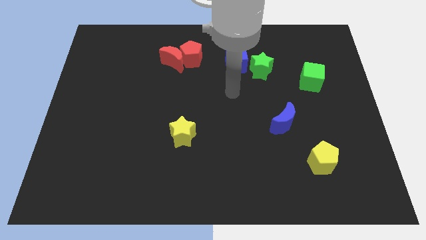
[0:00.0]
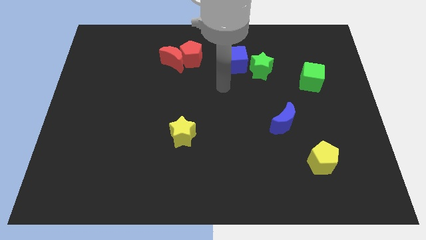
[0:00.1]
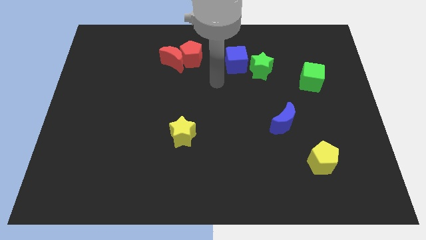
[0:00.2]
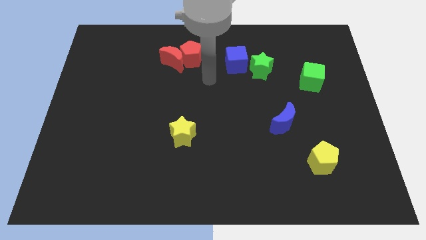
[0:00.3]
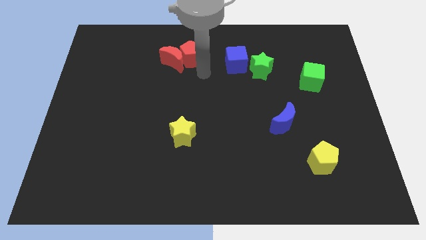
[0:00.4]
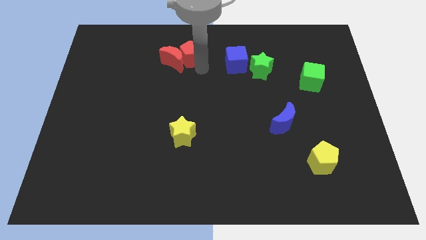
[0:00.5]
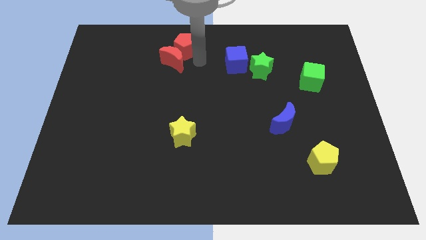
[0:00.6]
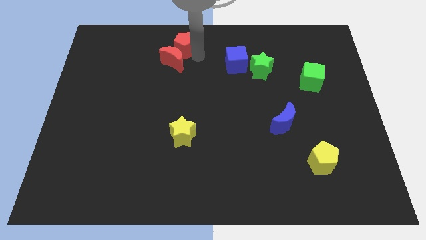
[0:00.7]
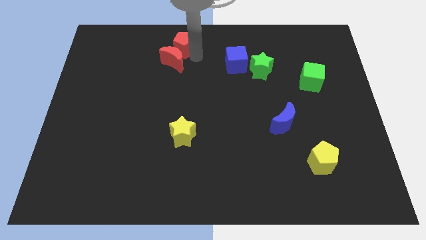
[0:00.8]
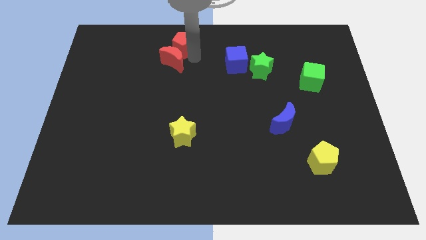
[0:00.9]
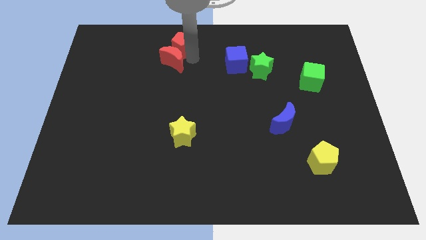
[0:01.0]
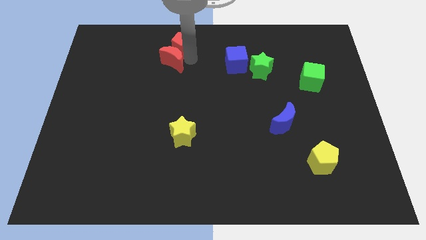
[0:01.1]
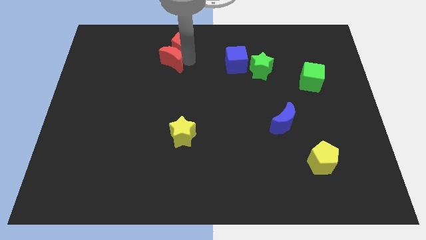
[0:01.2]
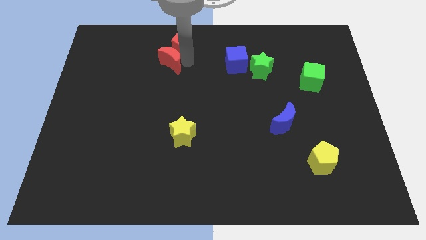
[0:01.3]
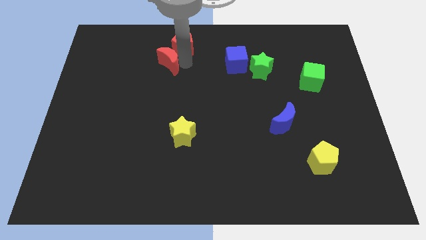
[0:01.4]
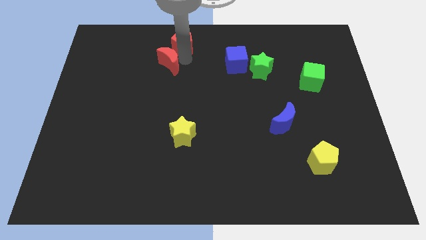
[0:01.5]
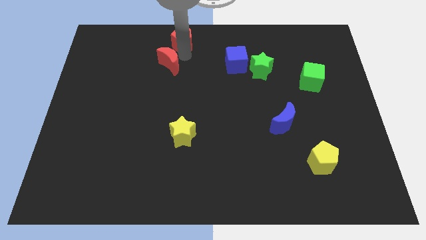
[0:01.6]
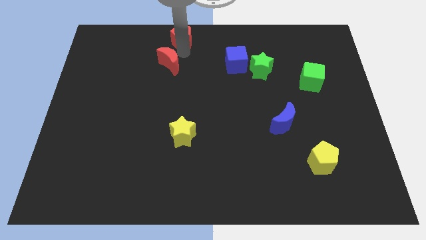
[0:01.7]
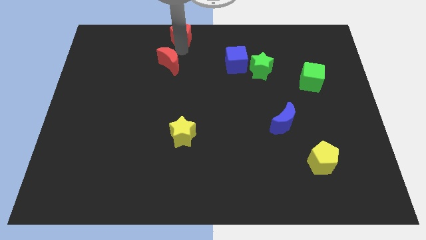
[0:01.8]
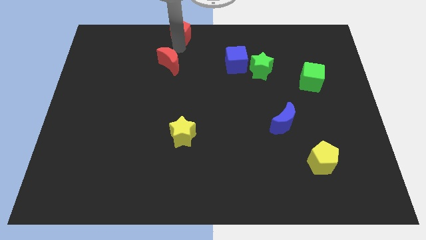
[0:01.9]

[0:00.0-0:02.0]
separate the red moon from the red pentagon

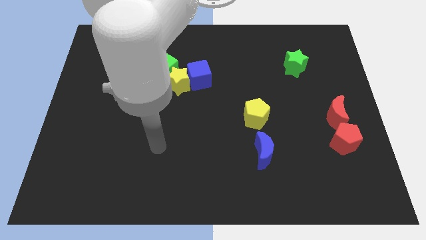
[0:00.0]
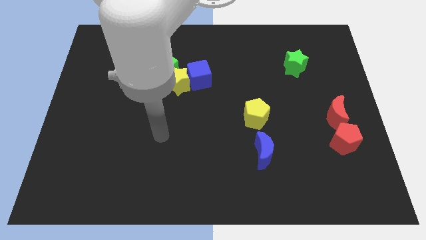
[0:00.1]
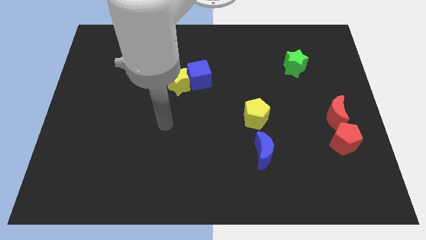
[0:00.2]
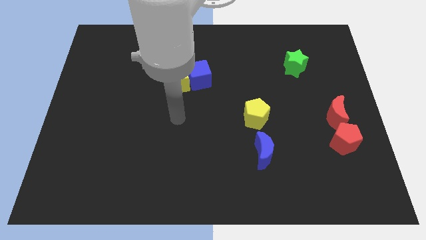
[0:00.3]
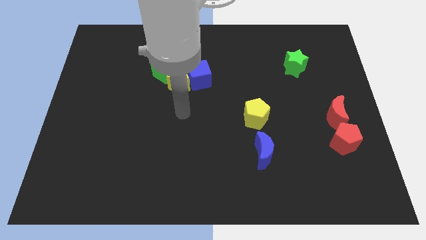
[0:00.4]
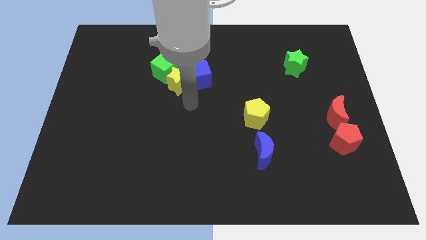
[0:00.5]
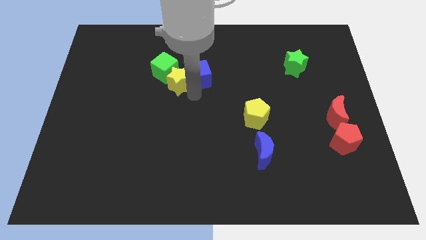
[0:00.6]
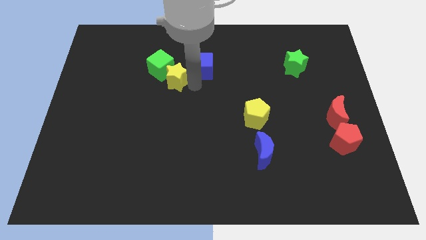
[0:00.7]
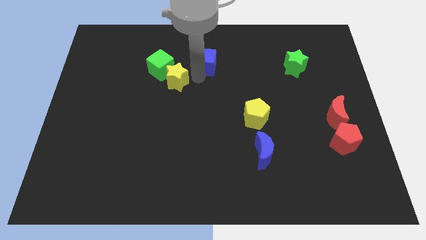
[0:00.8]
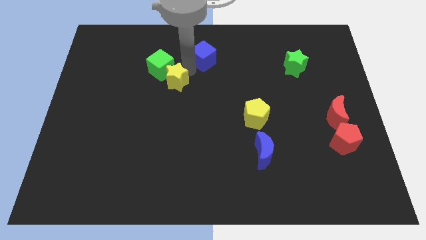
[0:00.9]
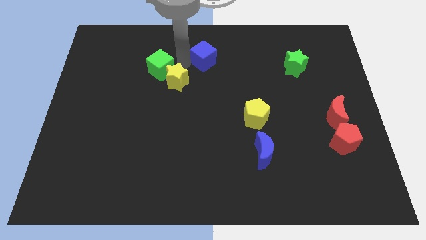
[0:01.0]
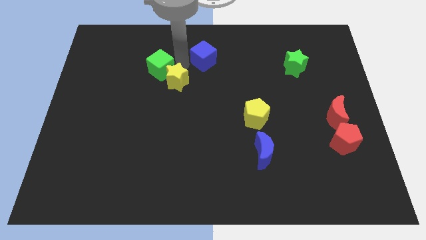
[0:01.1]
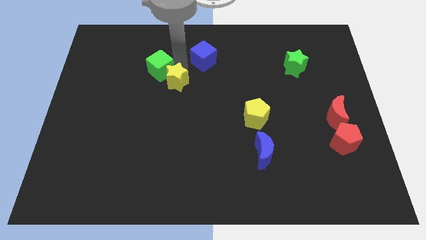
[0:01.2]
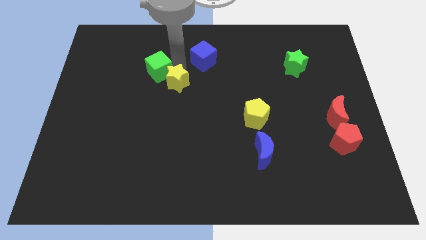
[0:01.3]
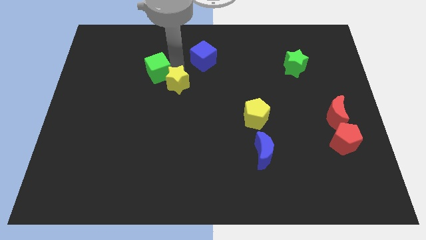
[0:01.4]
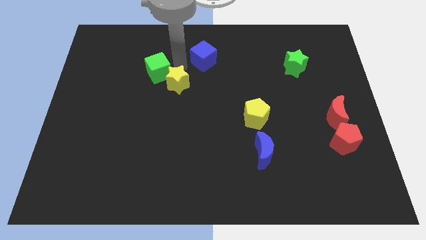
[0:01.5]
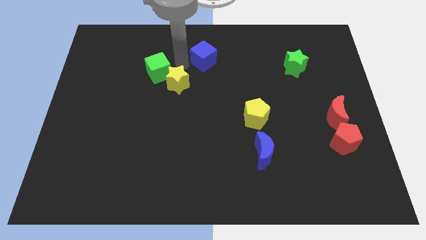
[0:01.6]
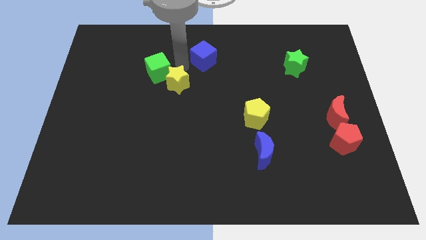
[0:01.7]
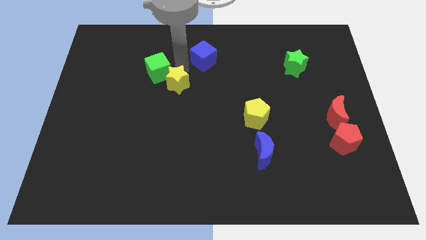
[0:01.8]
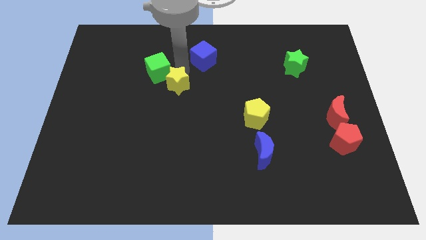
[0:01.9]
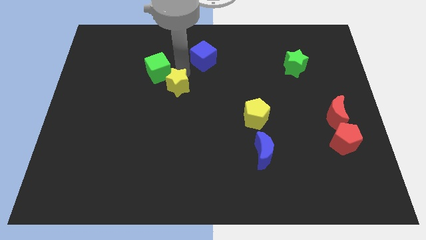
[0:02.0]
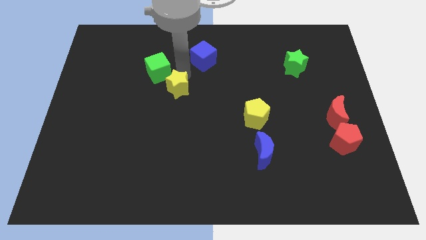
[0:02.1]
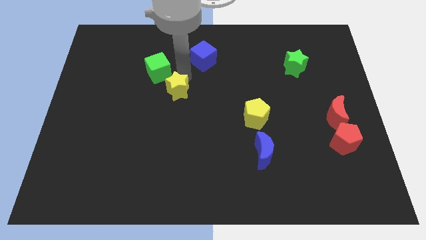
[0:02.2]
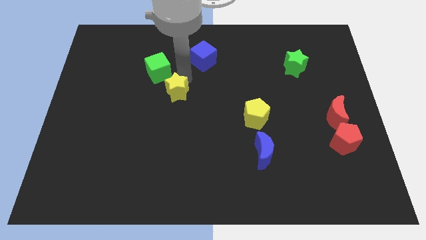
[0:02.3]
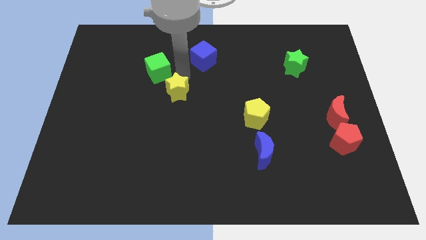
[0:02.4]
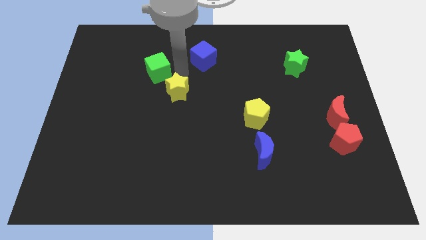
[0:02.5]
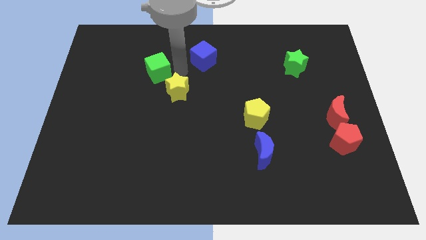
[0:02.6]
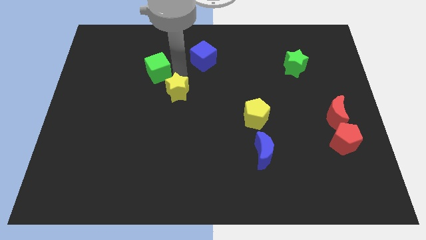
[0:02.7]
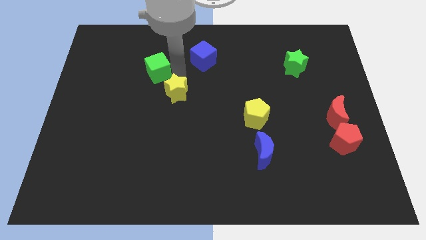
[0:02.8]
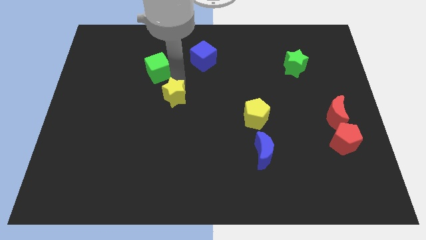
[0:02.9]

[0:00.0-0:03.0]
pull the yellow star apart from the blue cube and green cube

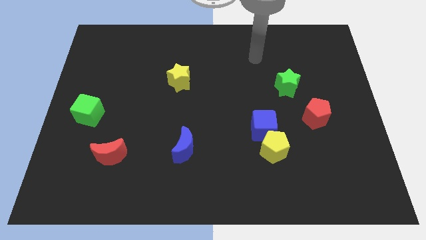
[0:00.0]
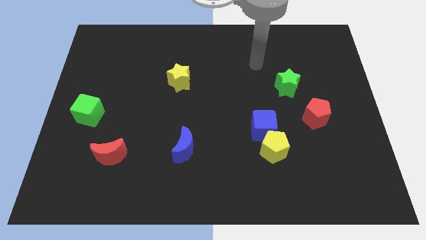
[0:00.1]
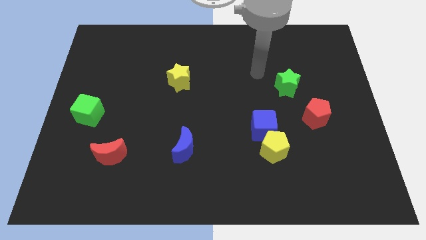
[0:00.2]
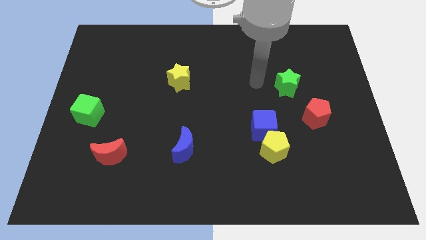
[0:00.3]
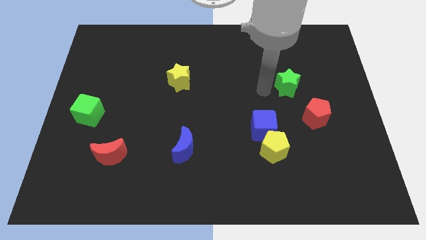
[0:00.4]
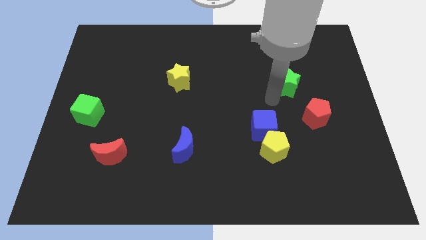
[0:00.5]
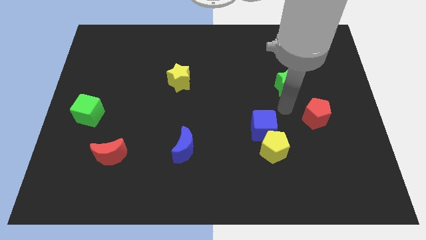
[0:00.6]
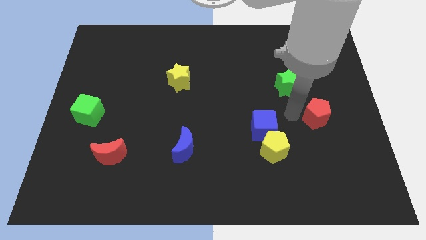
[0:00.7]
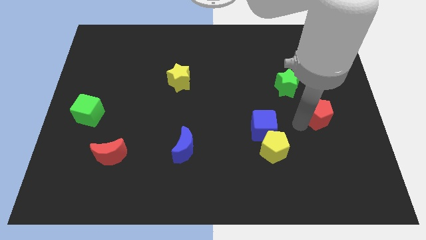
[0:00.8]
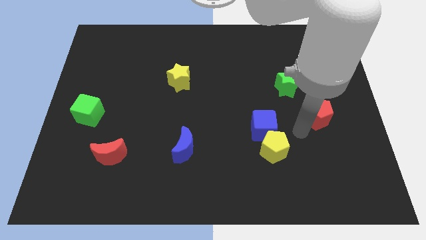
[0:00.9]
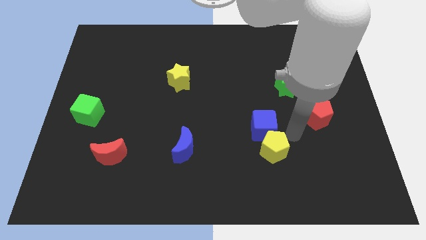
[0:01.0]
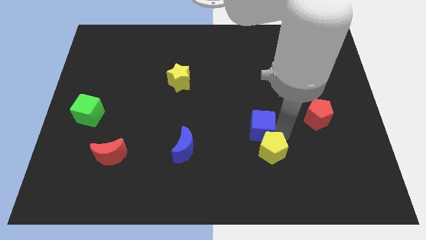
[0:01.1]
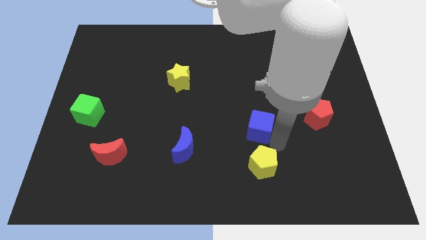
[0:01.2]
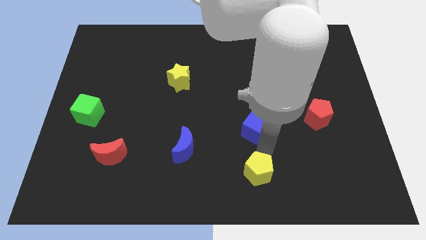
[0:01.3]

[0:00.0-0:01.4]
separate the blue cube from the yellow pentagon

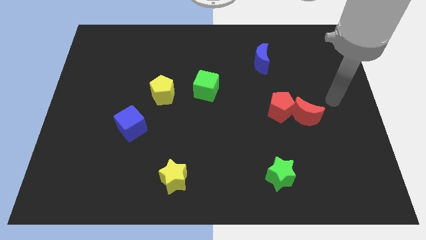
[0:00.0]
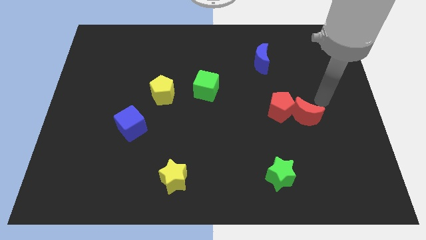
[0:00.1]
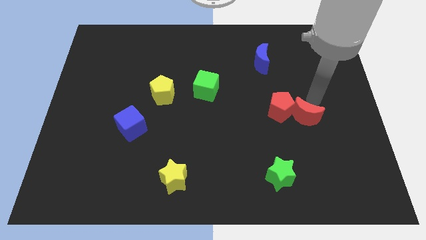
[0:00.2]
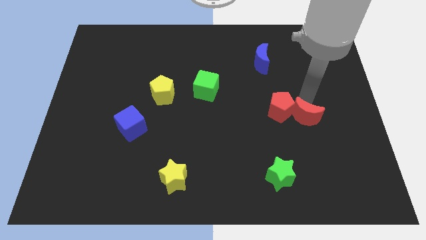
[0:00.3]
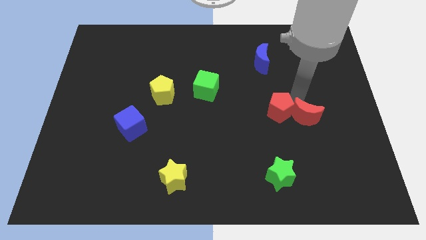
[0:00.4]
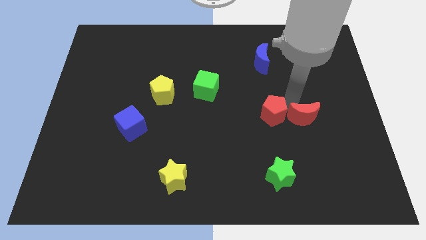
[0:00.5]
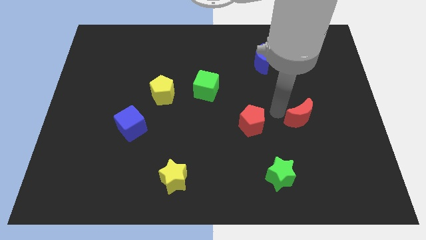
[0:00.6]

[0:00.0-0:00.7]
pull the red moon apart from the red pentagon

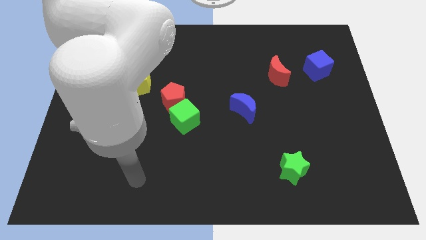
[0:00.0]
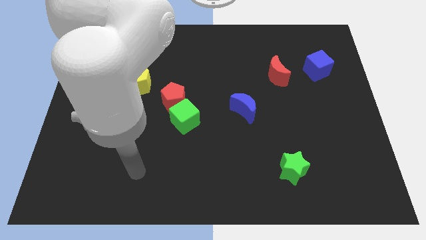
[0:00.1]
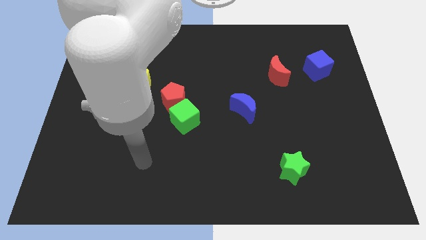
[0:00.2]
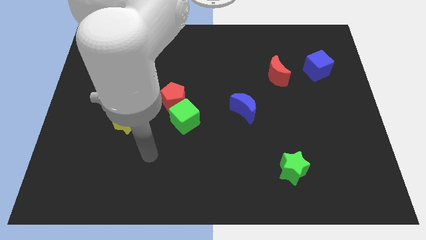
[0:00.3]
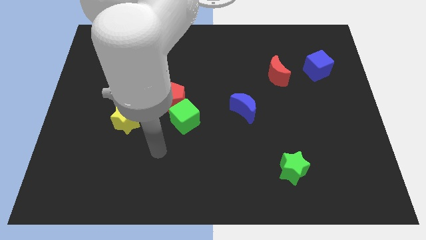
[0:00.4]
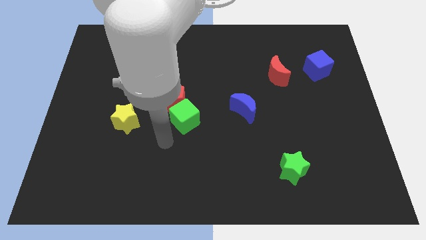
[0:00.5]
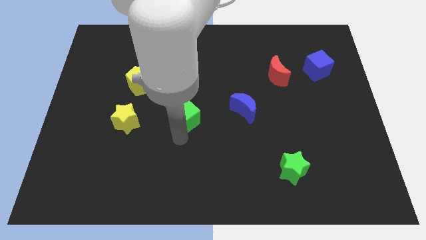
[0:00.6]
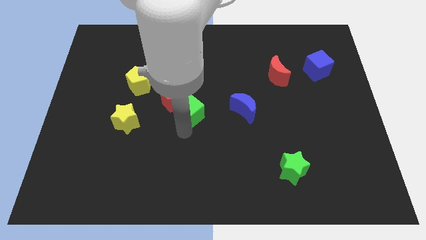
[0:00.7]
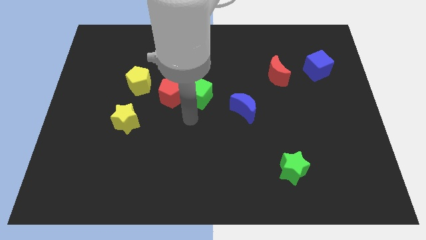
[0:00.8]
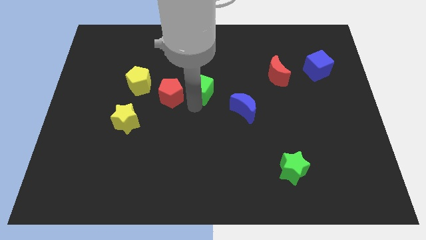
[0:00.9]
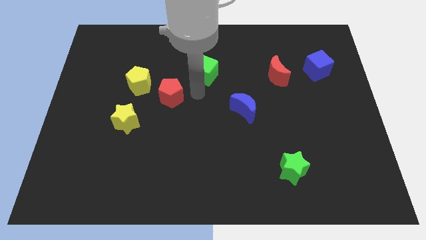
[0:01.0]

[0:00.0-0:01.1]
separate the red pentagon from the green cube

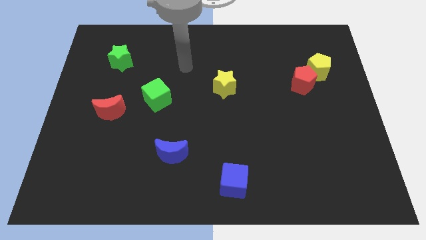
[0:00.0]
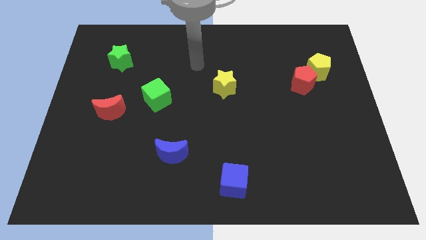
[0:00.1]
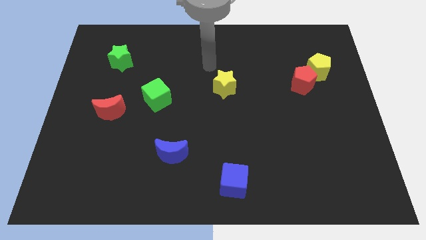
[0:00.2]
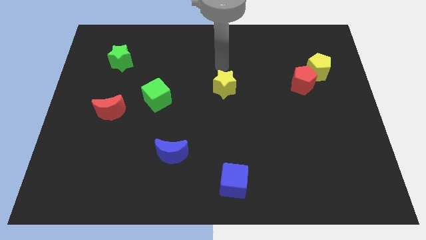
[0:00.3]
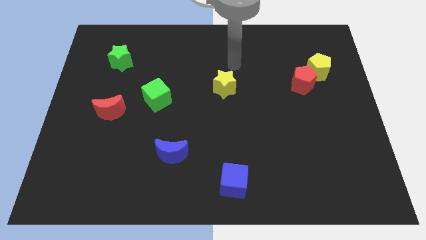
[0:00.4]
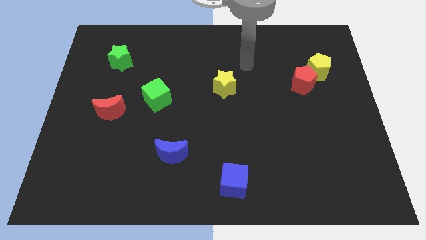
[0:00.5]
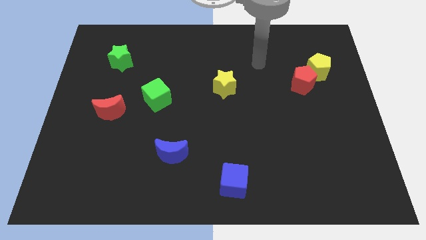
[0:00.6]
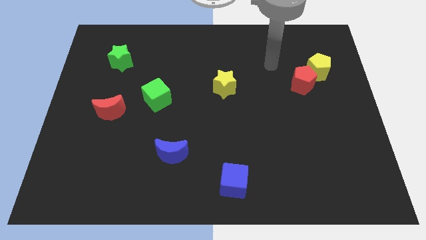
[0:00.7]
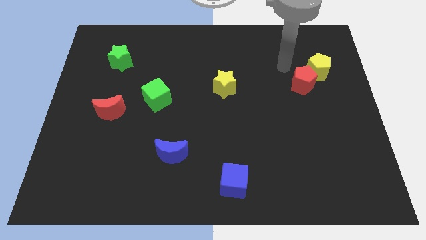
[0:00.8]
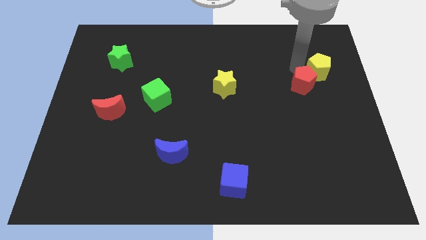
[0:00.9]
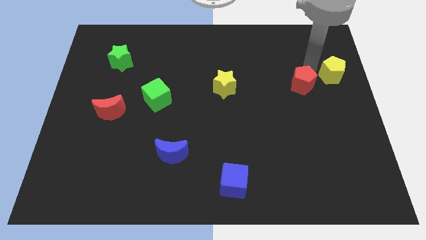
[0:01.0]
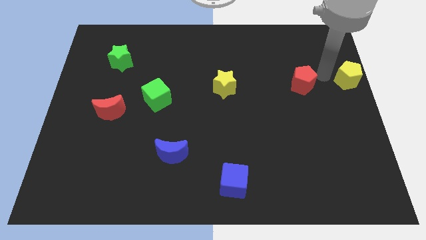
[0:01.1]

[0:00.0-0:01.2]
separate the red pentagon from the yellow pentagon

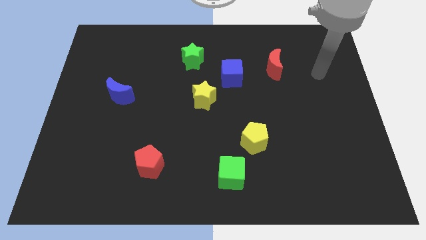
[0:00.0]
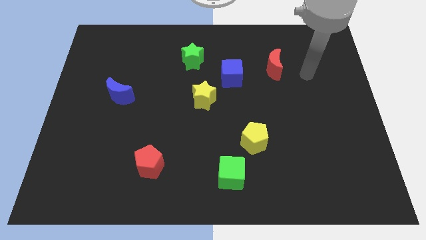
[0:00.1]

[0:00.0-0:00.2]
separate the blue cube from the yellow star
